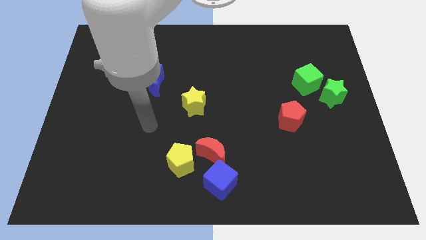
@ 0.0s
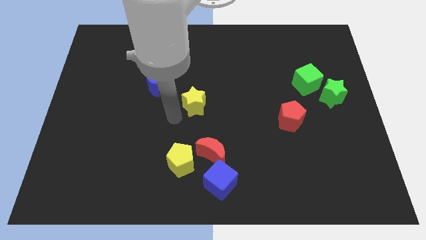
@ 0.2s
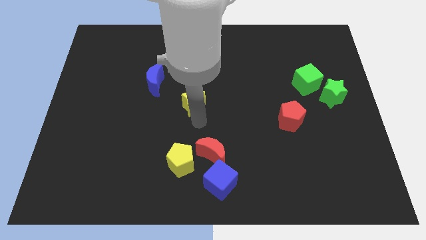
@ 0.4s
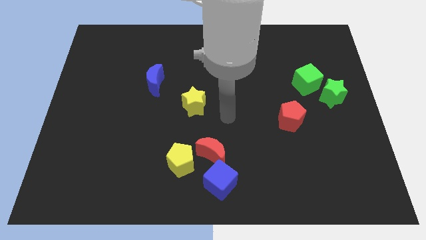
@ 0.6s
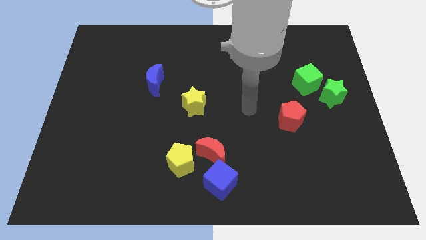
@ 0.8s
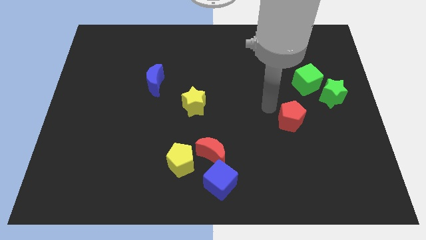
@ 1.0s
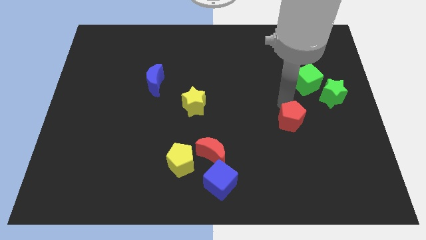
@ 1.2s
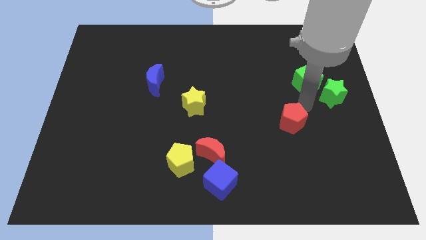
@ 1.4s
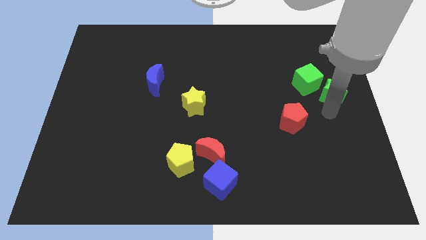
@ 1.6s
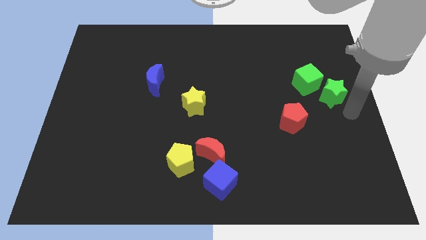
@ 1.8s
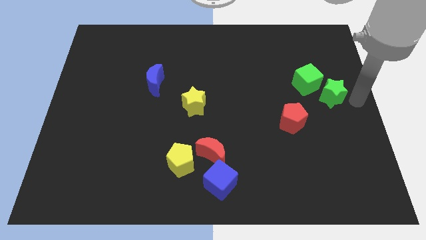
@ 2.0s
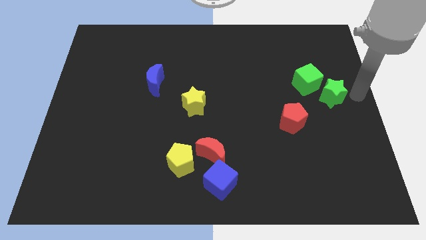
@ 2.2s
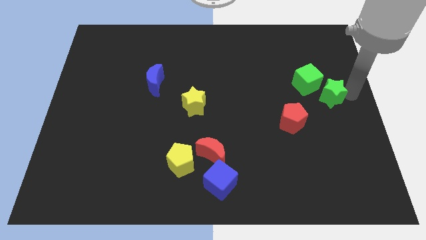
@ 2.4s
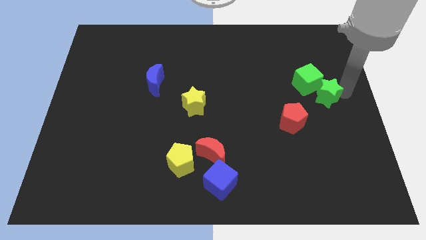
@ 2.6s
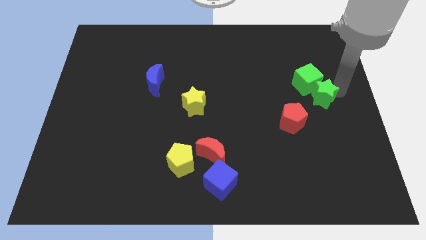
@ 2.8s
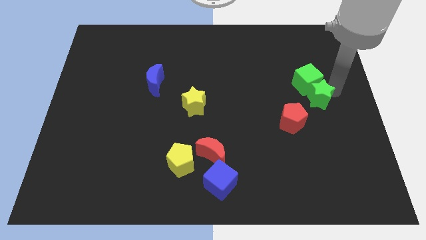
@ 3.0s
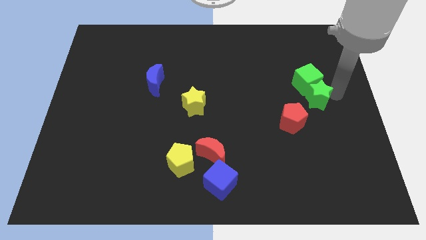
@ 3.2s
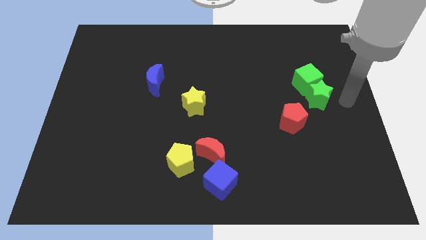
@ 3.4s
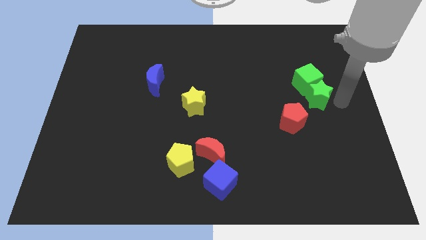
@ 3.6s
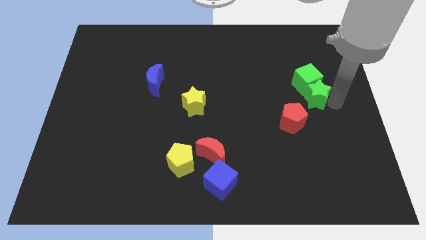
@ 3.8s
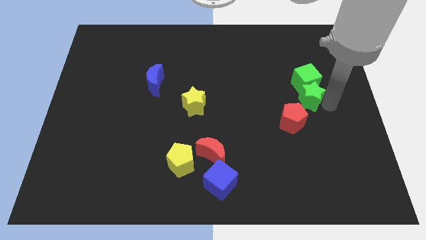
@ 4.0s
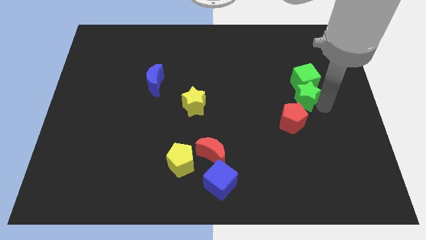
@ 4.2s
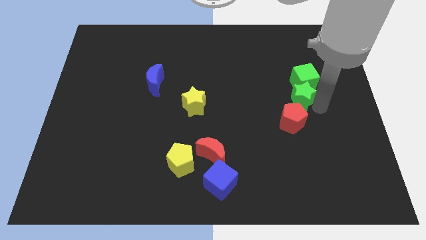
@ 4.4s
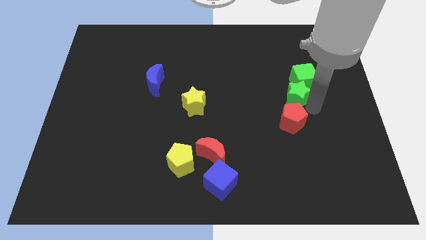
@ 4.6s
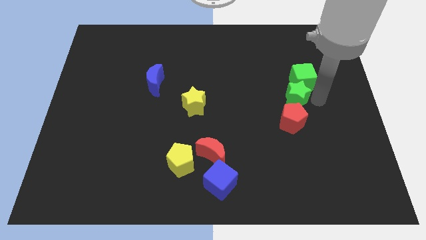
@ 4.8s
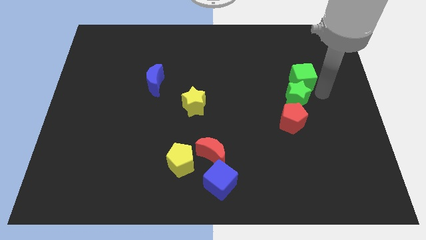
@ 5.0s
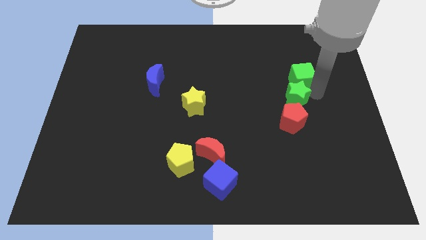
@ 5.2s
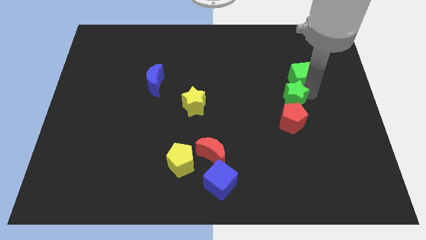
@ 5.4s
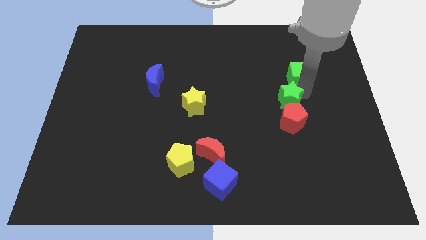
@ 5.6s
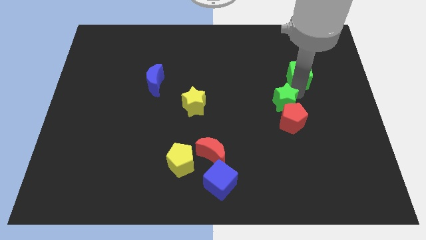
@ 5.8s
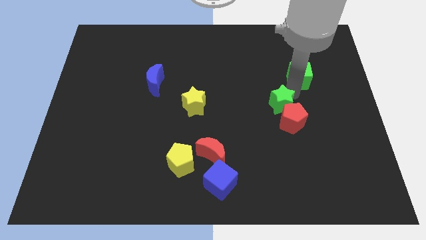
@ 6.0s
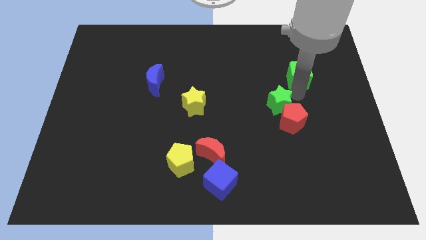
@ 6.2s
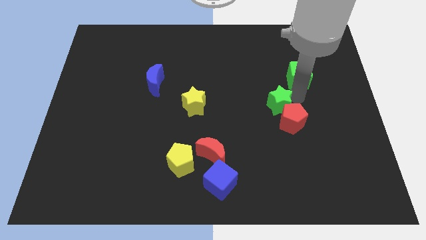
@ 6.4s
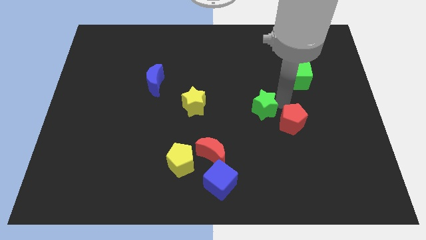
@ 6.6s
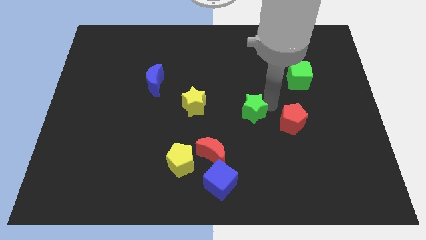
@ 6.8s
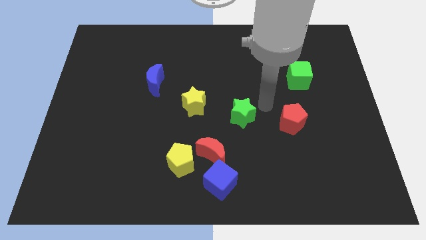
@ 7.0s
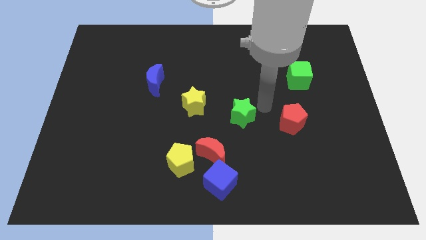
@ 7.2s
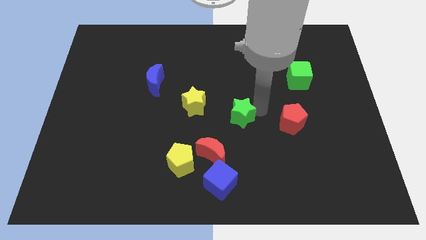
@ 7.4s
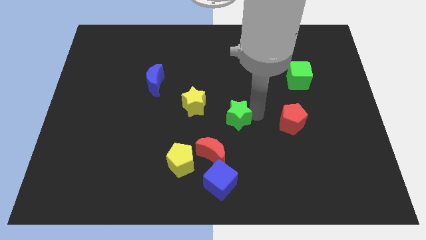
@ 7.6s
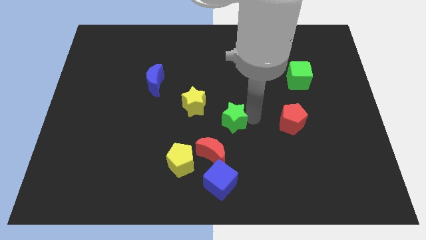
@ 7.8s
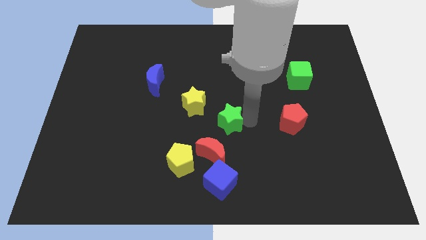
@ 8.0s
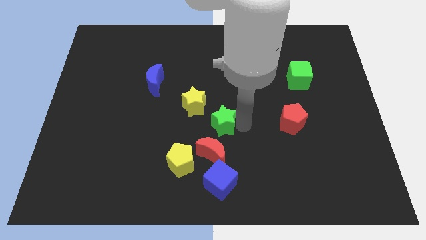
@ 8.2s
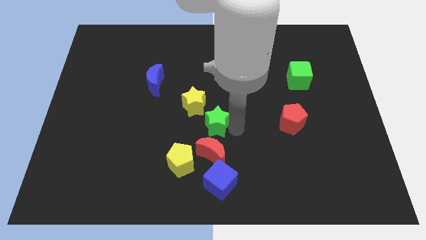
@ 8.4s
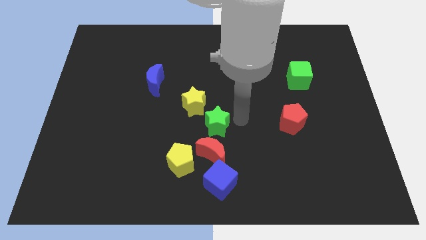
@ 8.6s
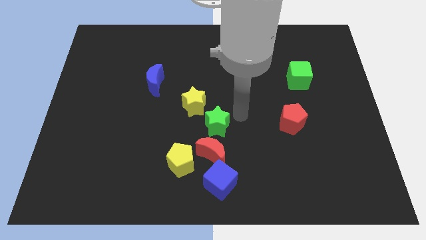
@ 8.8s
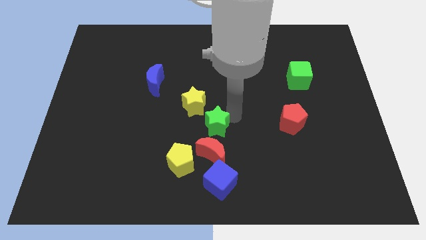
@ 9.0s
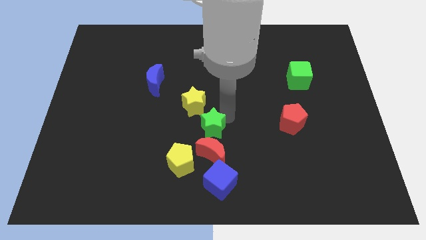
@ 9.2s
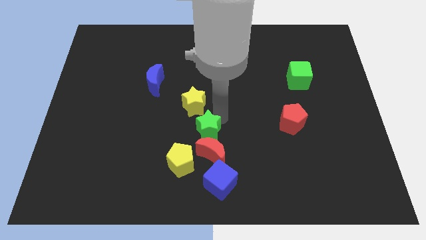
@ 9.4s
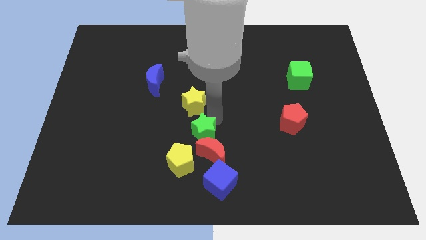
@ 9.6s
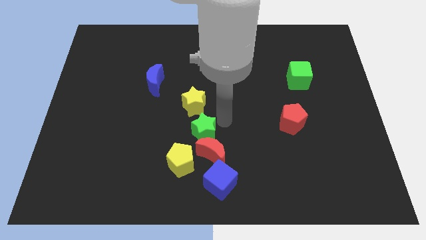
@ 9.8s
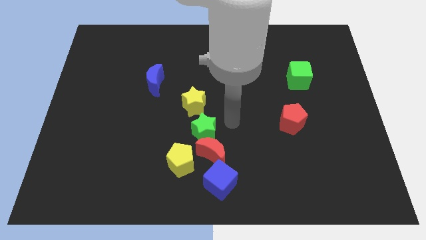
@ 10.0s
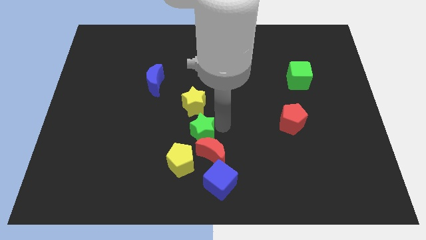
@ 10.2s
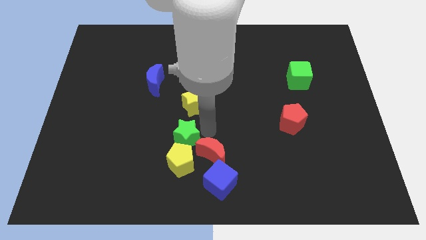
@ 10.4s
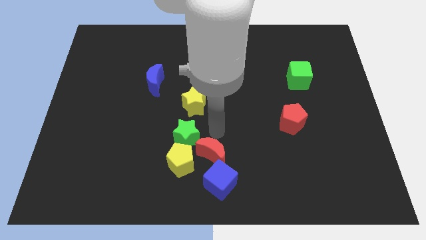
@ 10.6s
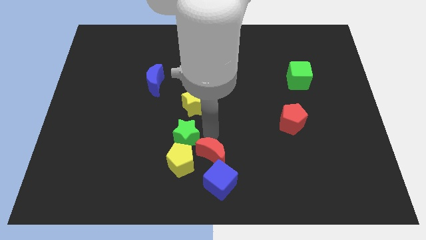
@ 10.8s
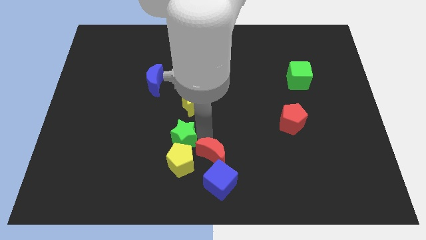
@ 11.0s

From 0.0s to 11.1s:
put the green star to the top left side of the yellow pentagon

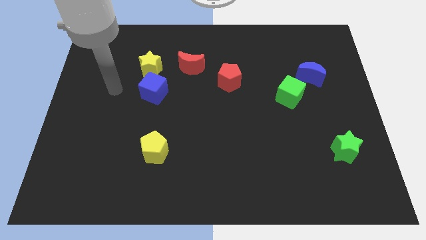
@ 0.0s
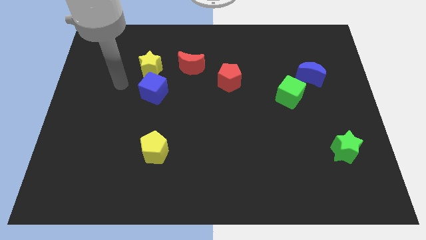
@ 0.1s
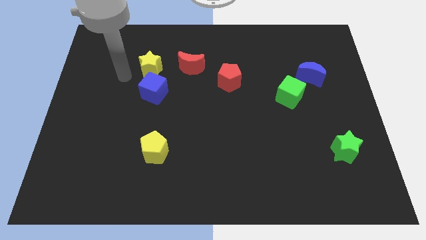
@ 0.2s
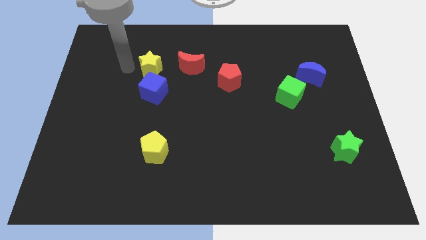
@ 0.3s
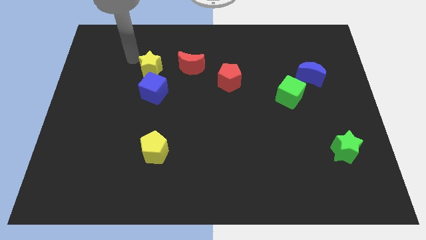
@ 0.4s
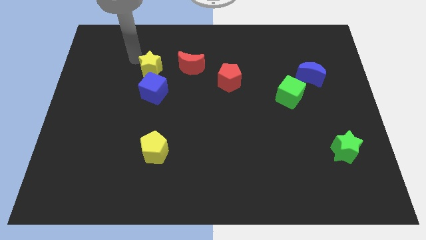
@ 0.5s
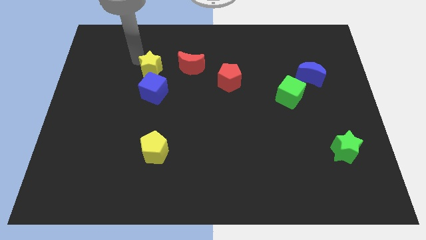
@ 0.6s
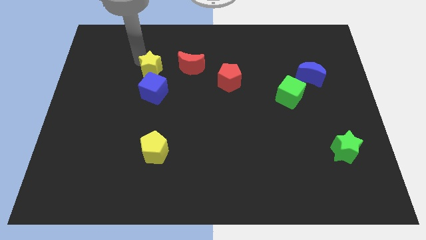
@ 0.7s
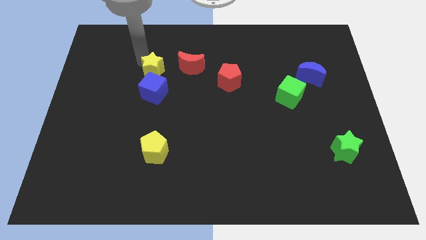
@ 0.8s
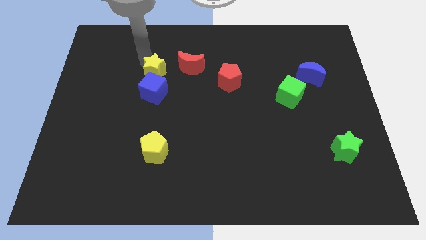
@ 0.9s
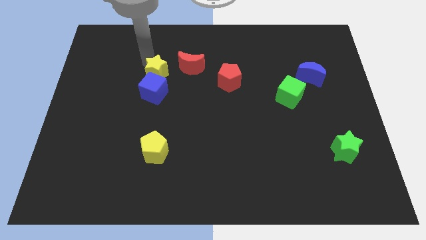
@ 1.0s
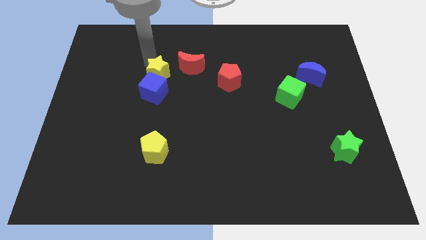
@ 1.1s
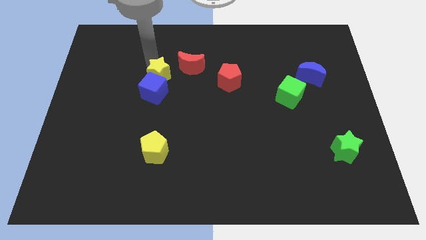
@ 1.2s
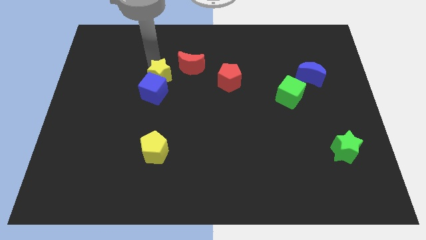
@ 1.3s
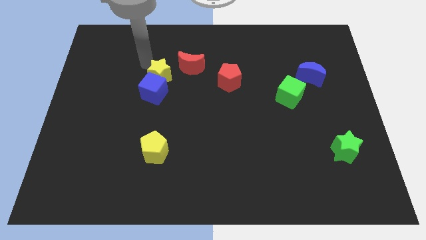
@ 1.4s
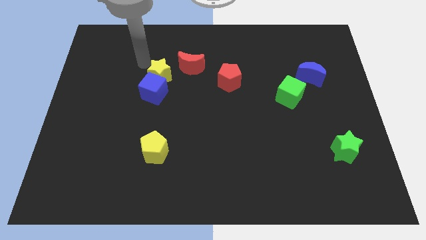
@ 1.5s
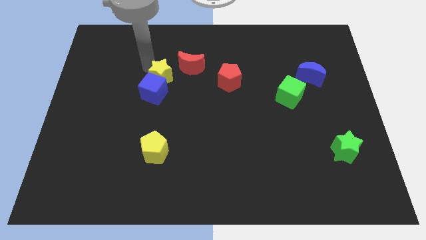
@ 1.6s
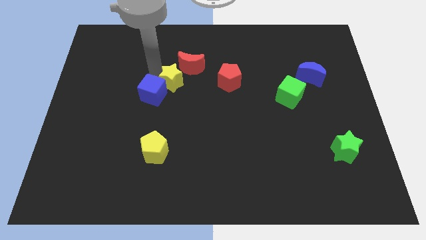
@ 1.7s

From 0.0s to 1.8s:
slide the yellow star below the red moon

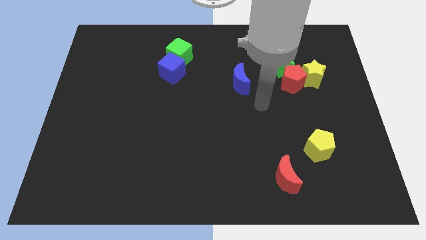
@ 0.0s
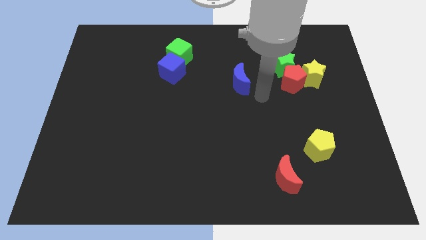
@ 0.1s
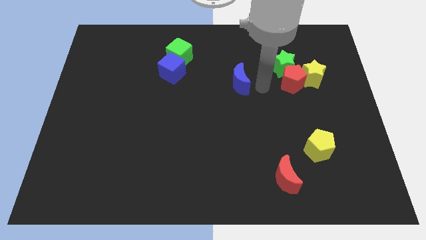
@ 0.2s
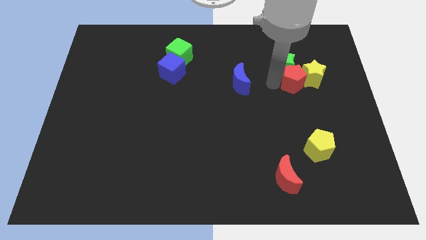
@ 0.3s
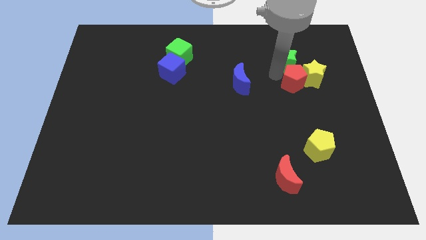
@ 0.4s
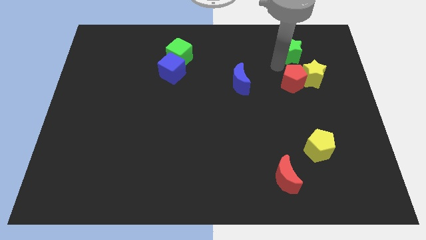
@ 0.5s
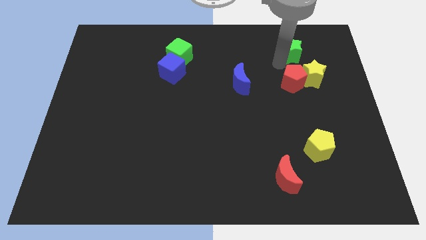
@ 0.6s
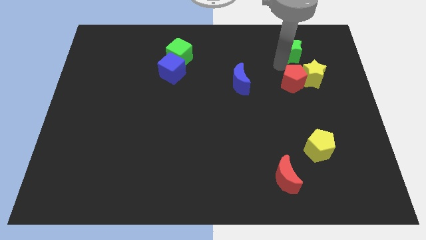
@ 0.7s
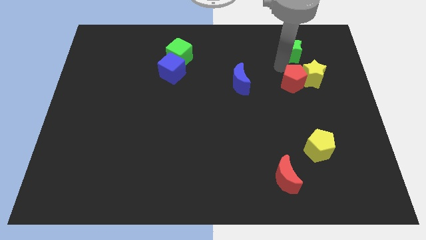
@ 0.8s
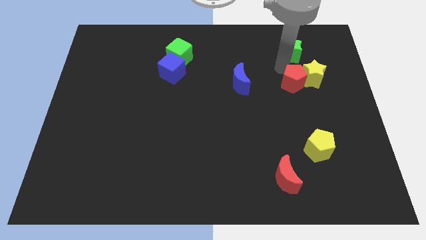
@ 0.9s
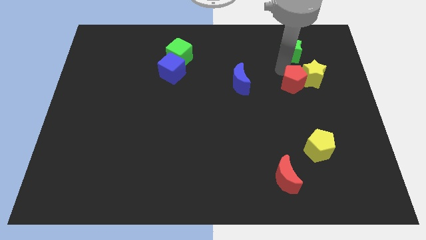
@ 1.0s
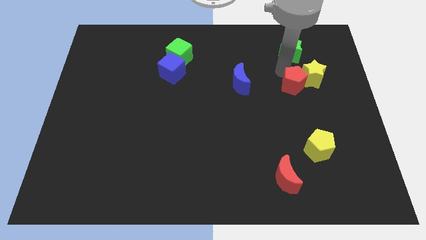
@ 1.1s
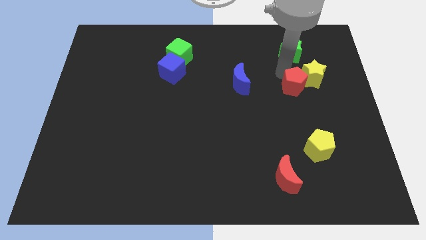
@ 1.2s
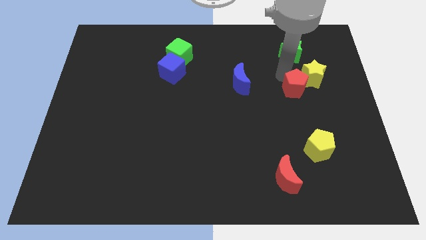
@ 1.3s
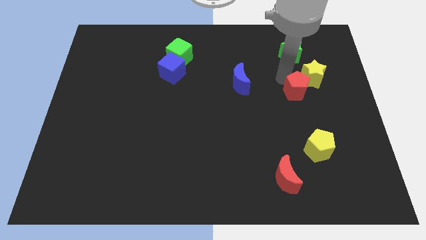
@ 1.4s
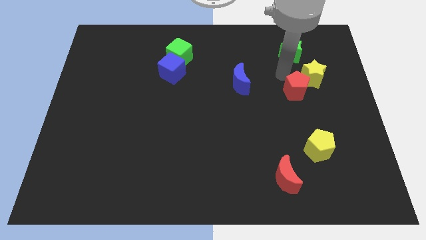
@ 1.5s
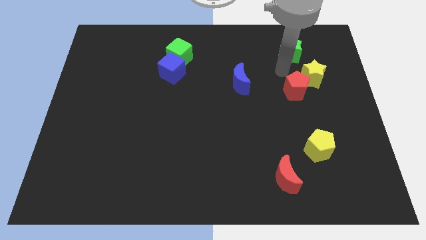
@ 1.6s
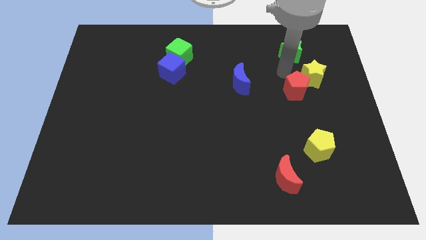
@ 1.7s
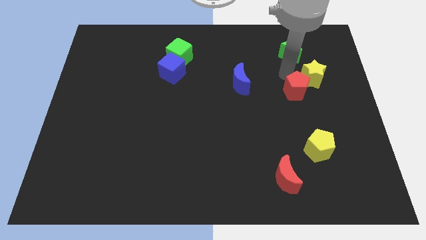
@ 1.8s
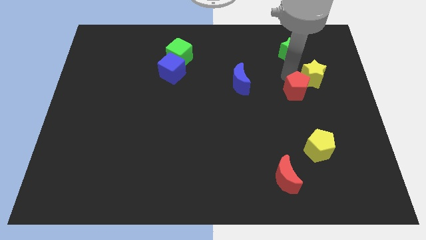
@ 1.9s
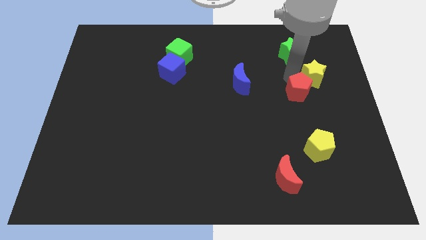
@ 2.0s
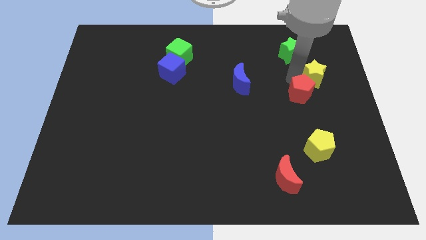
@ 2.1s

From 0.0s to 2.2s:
move the red pentagon to the top side of the yellow pentagon
